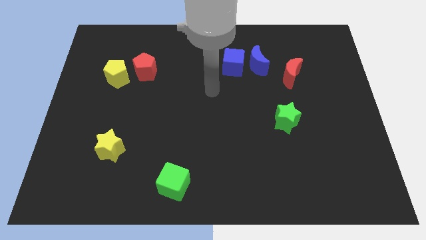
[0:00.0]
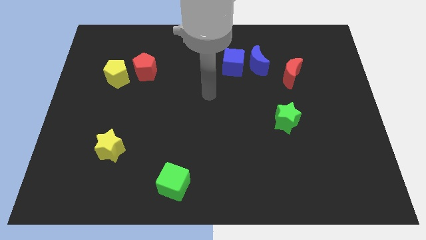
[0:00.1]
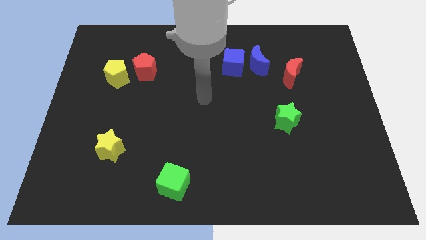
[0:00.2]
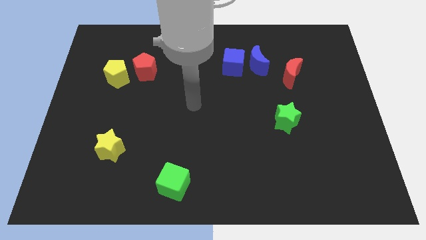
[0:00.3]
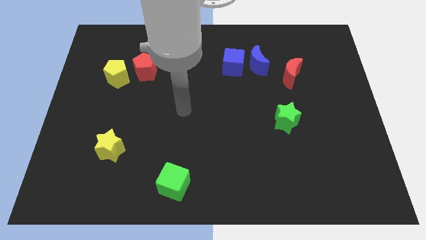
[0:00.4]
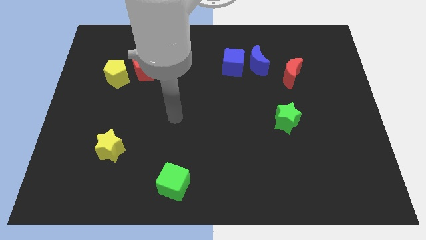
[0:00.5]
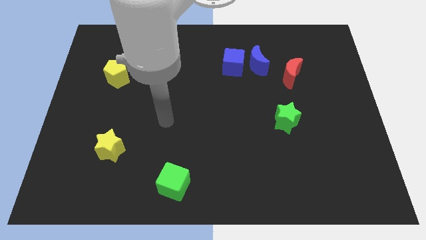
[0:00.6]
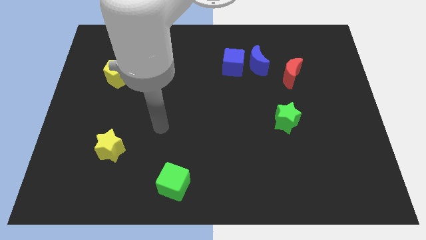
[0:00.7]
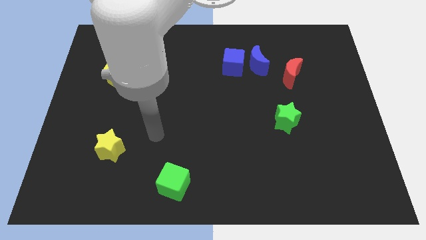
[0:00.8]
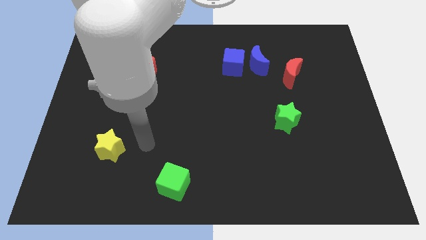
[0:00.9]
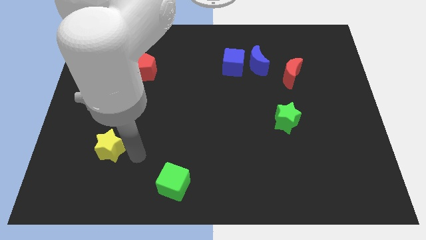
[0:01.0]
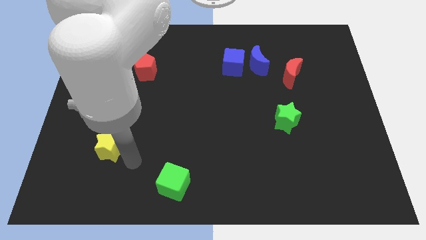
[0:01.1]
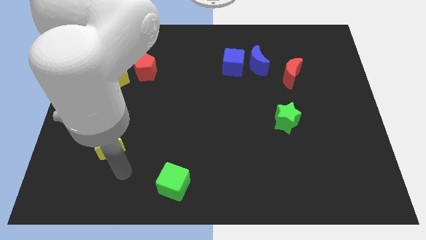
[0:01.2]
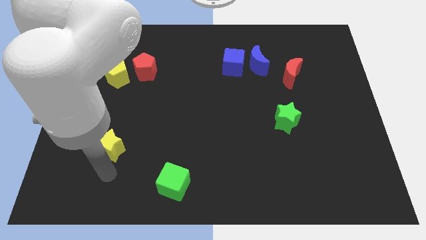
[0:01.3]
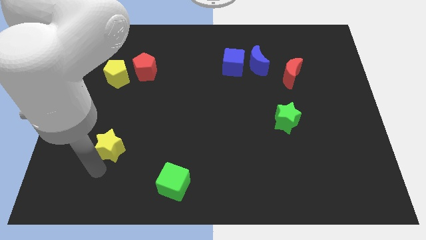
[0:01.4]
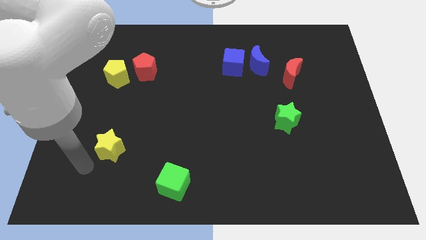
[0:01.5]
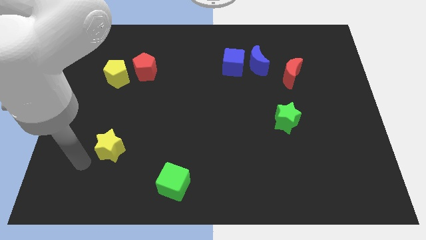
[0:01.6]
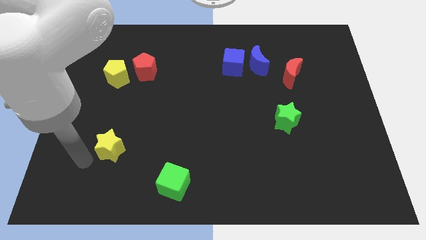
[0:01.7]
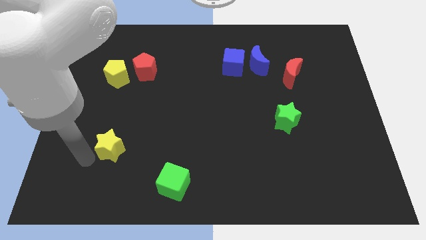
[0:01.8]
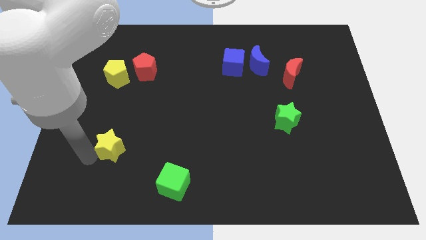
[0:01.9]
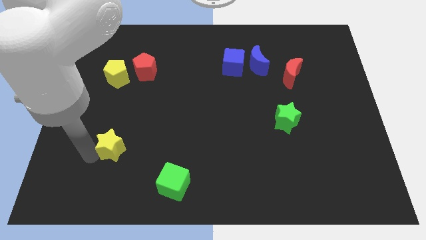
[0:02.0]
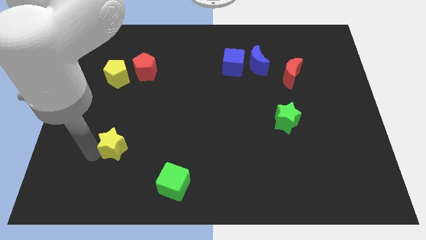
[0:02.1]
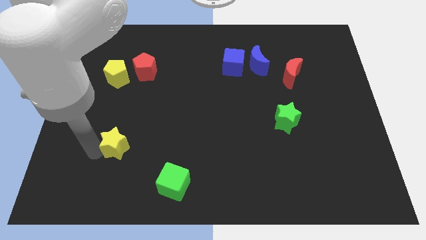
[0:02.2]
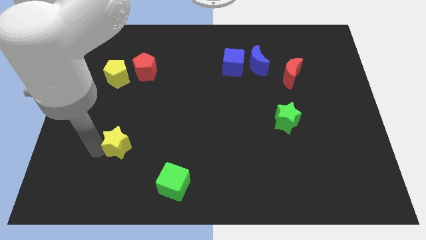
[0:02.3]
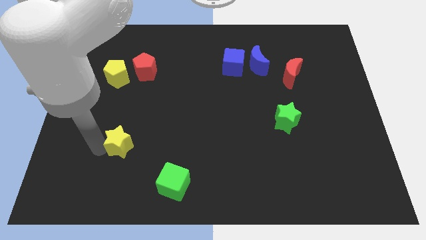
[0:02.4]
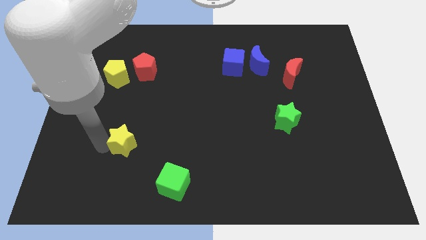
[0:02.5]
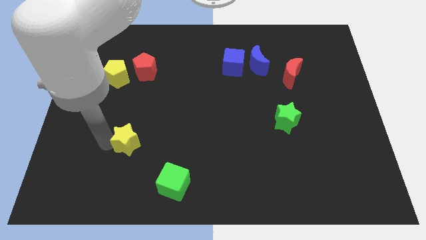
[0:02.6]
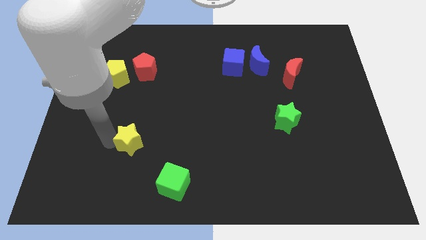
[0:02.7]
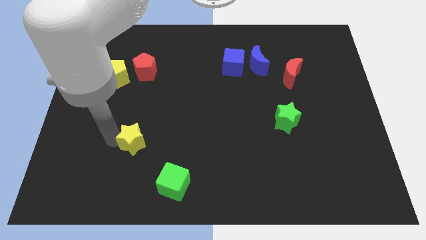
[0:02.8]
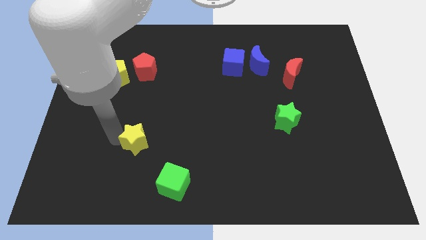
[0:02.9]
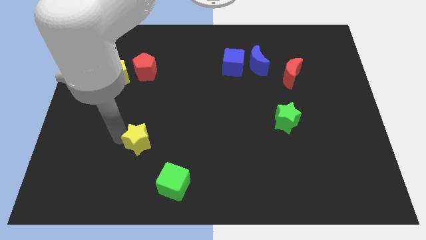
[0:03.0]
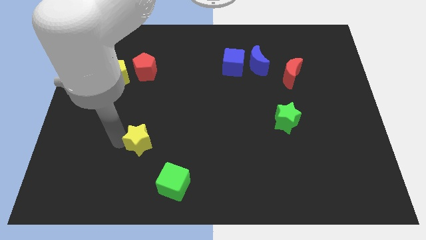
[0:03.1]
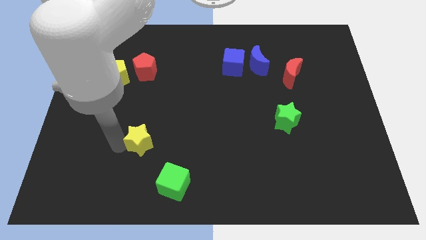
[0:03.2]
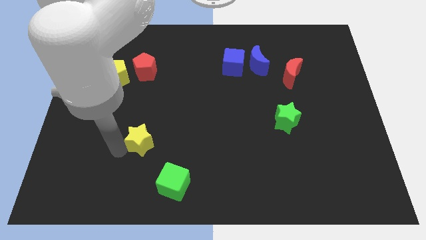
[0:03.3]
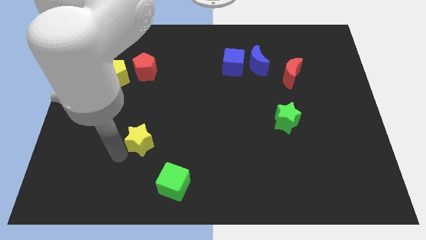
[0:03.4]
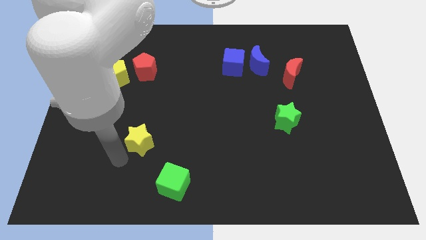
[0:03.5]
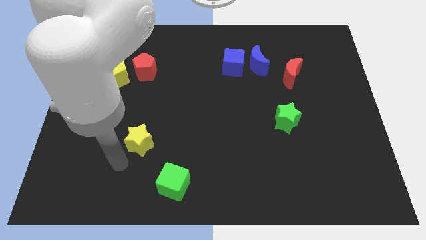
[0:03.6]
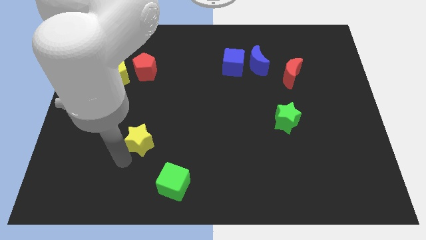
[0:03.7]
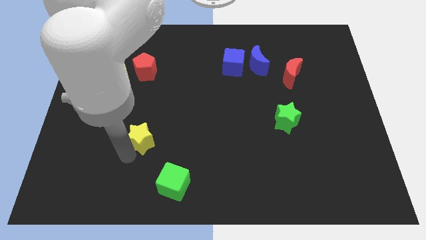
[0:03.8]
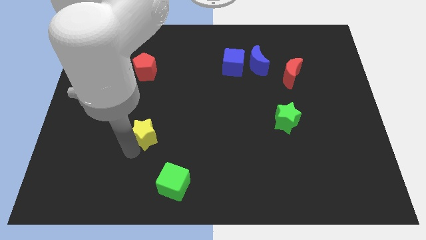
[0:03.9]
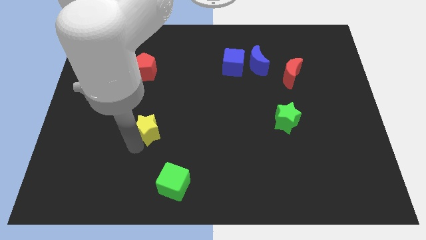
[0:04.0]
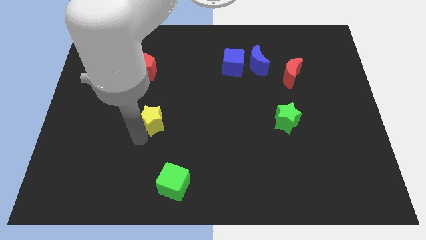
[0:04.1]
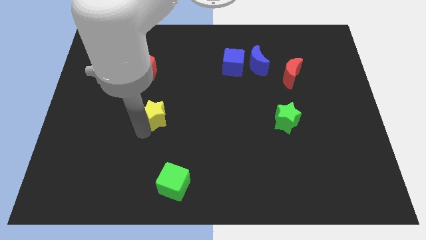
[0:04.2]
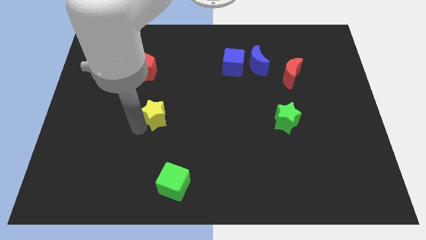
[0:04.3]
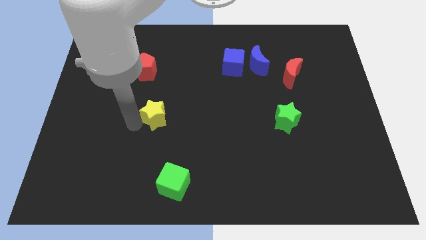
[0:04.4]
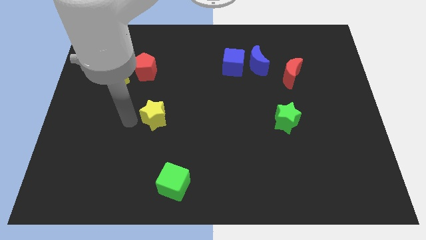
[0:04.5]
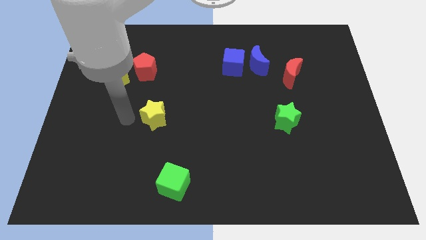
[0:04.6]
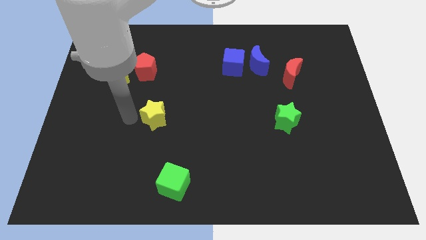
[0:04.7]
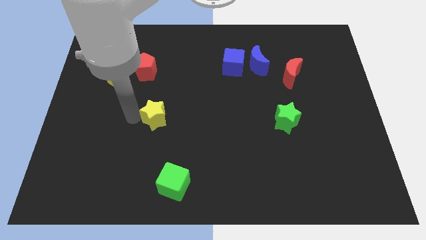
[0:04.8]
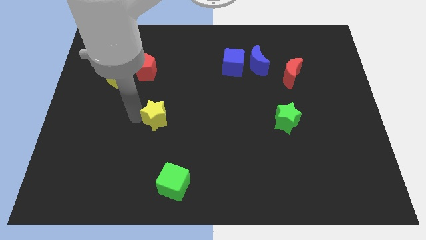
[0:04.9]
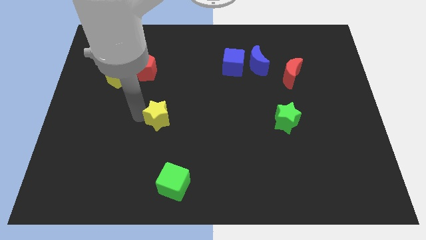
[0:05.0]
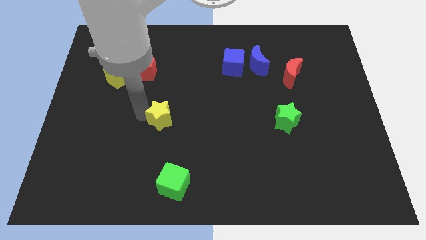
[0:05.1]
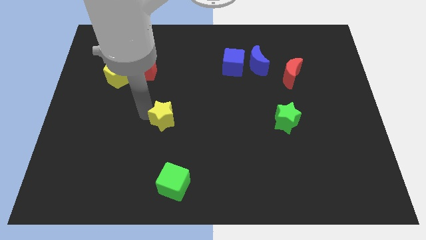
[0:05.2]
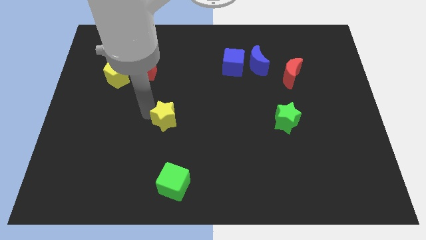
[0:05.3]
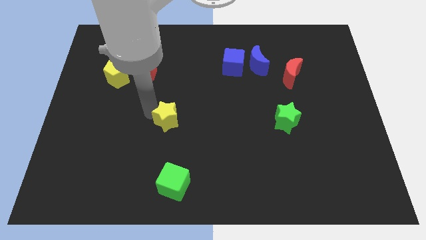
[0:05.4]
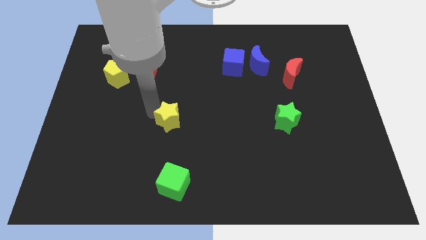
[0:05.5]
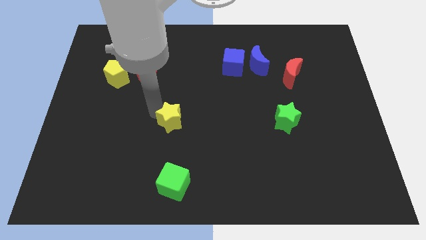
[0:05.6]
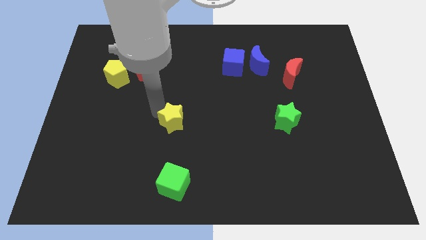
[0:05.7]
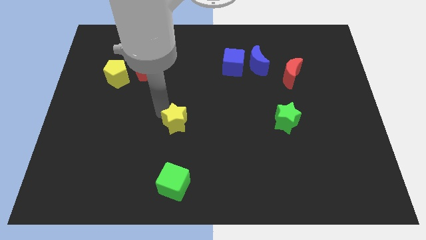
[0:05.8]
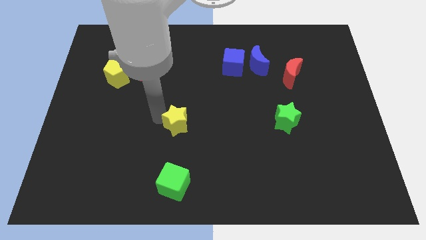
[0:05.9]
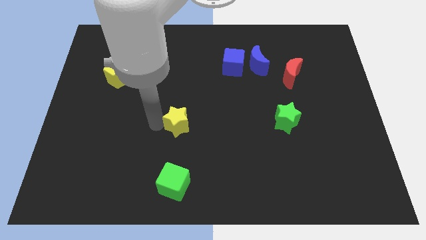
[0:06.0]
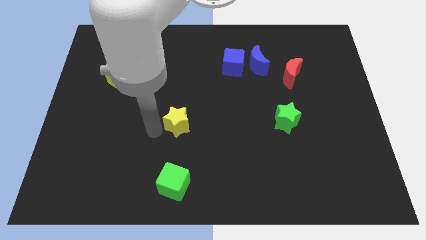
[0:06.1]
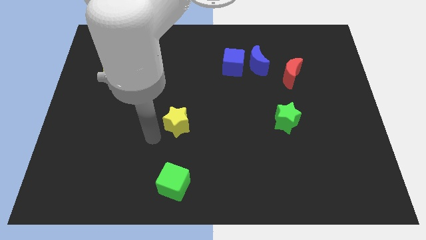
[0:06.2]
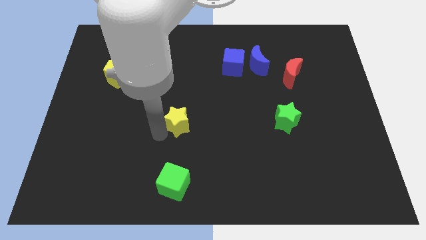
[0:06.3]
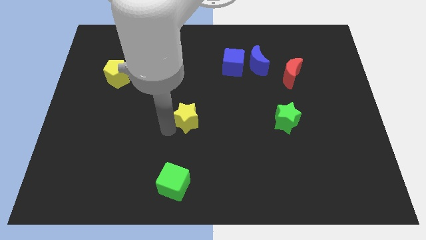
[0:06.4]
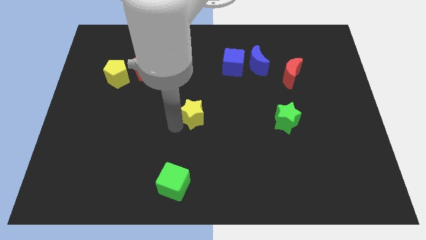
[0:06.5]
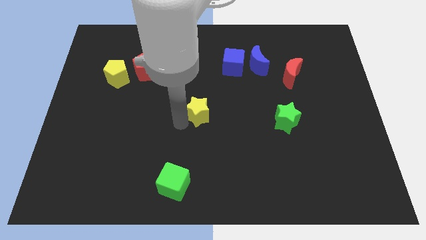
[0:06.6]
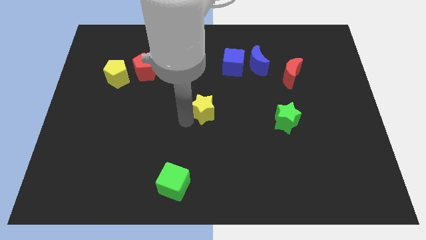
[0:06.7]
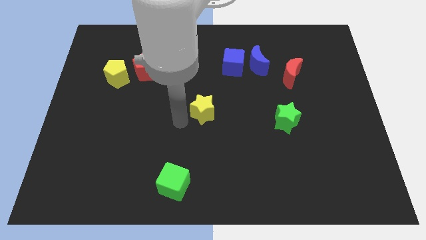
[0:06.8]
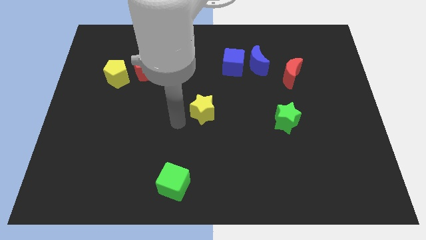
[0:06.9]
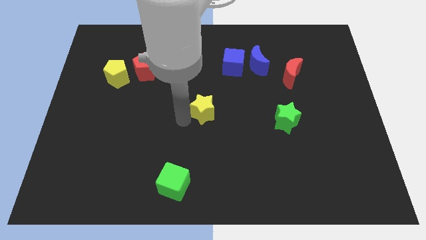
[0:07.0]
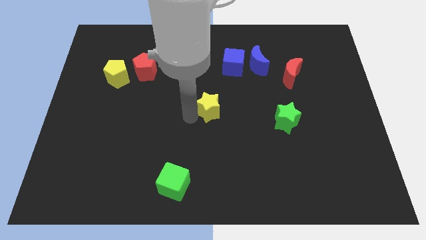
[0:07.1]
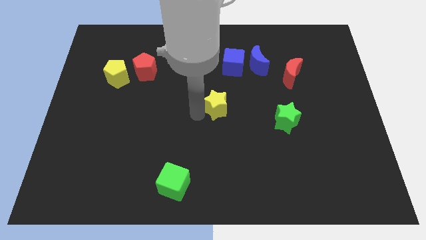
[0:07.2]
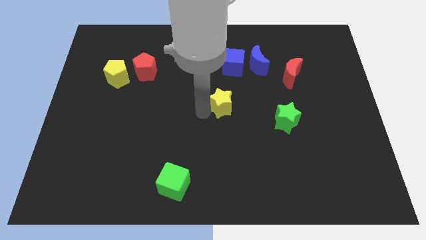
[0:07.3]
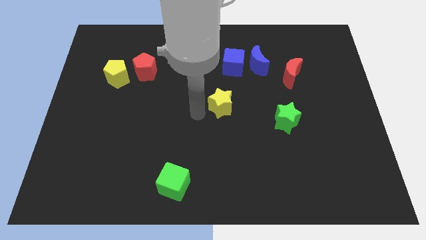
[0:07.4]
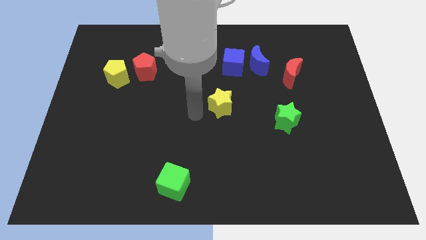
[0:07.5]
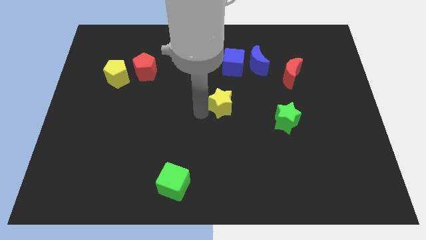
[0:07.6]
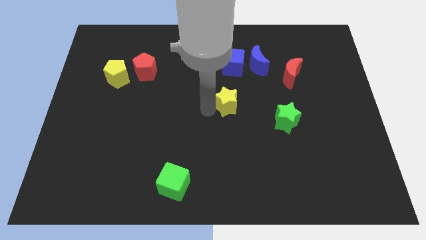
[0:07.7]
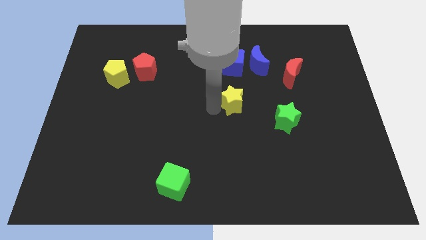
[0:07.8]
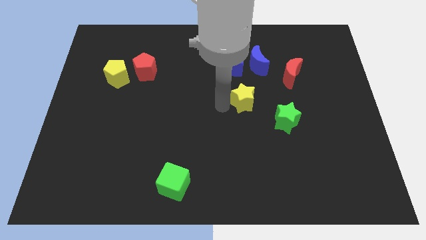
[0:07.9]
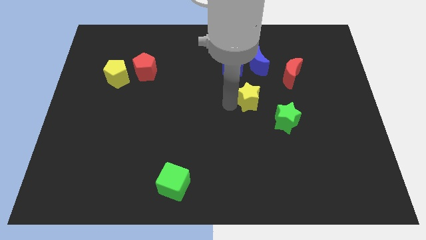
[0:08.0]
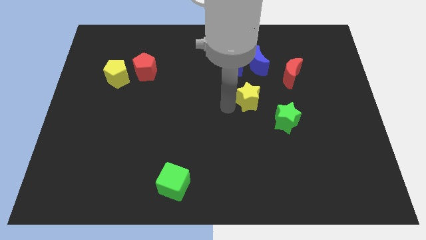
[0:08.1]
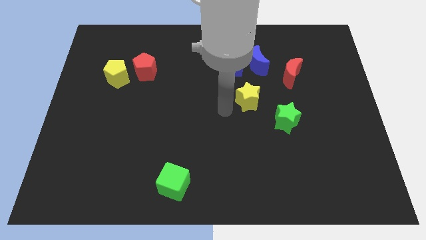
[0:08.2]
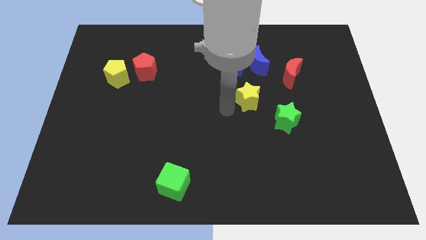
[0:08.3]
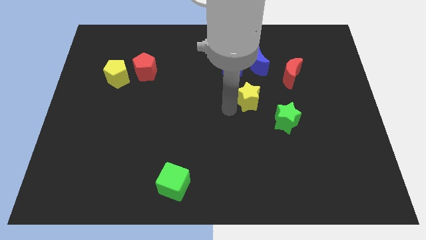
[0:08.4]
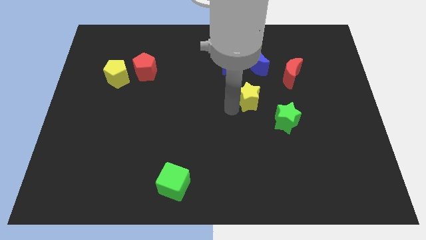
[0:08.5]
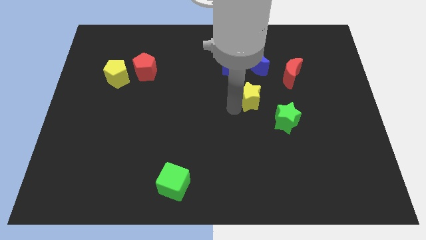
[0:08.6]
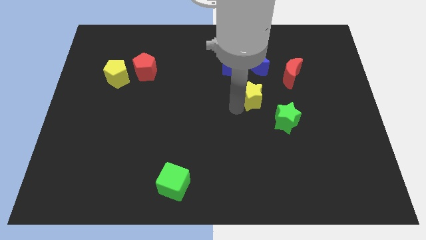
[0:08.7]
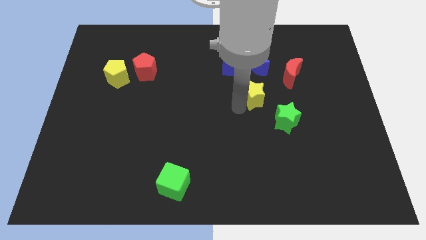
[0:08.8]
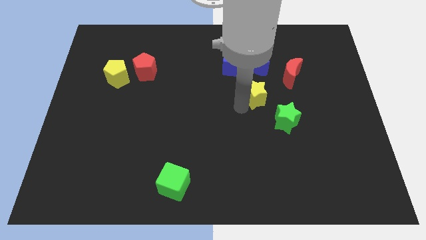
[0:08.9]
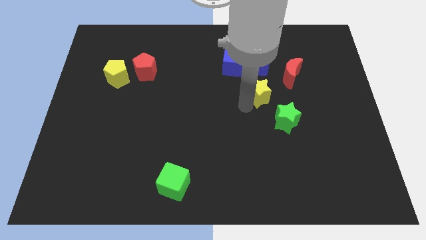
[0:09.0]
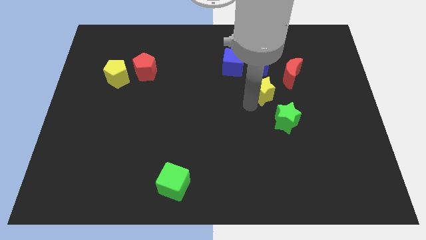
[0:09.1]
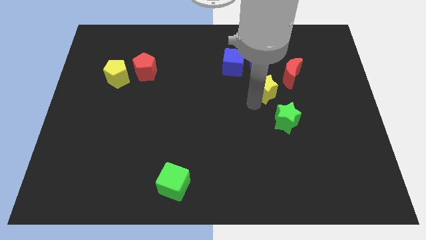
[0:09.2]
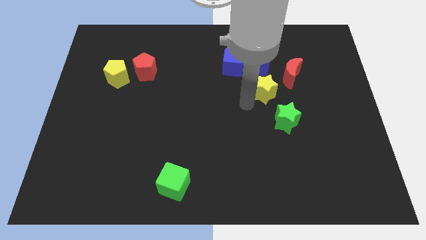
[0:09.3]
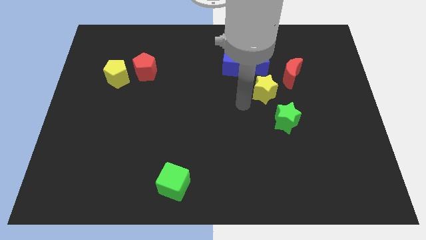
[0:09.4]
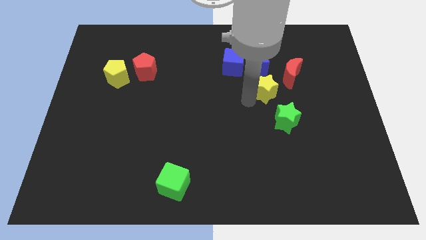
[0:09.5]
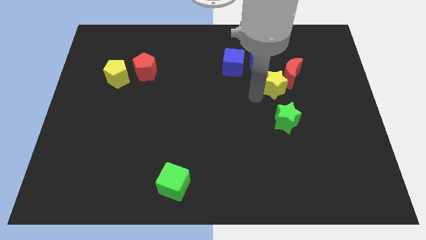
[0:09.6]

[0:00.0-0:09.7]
move the yellow star towards the red moon
